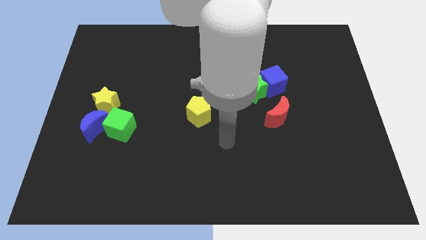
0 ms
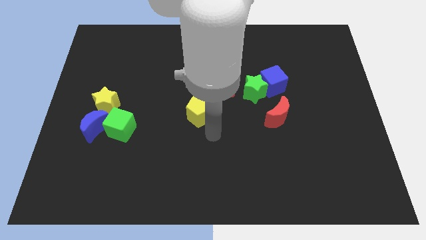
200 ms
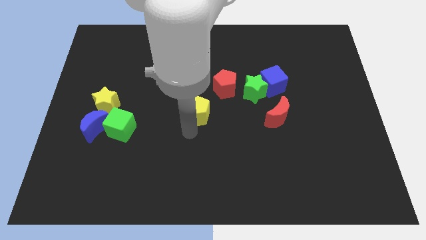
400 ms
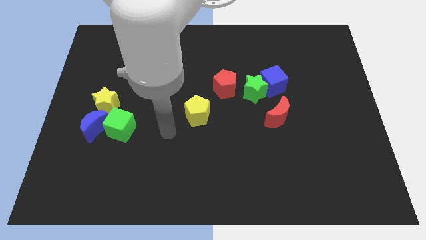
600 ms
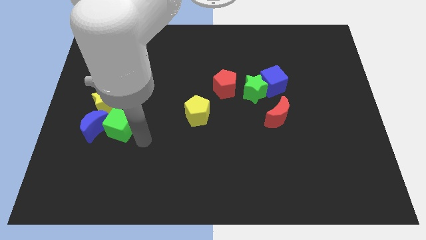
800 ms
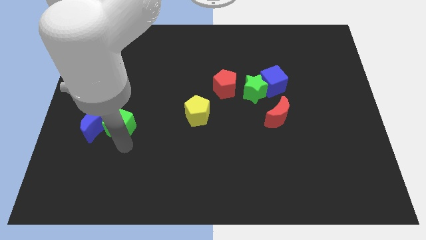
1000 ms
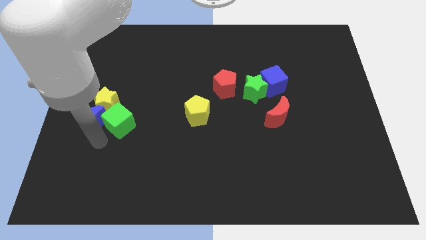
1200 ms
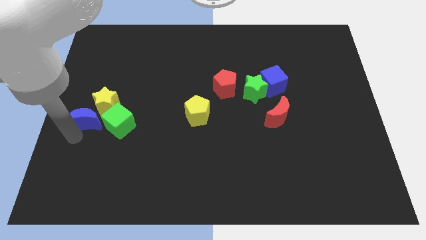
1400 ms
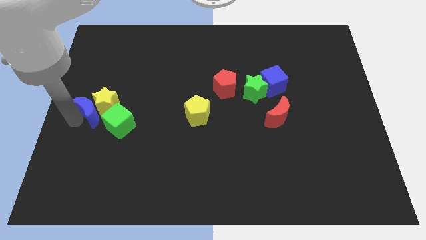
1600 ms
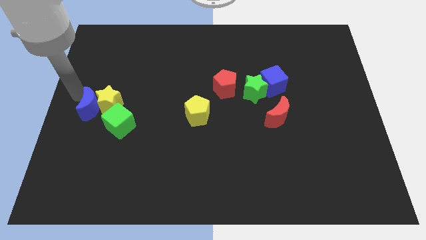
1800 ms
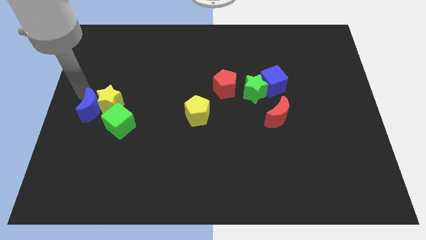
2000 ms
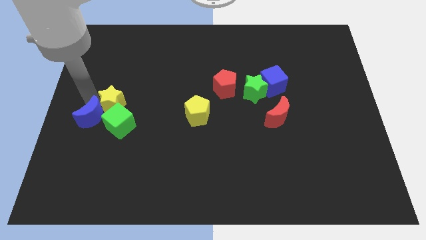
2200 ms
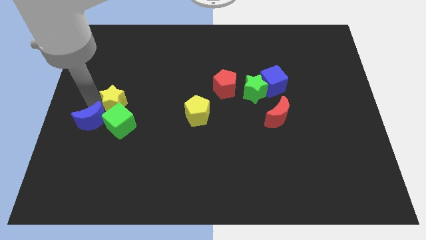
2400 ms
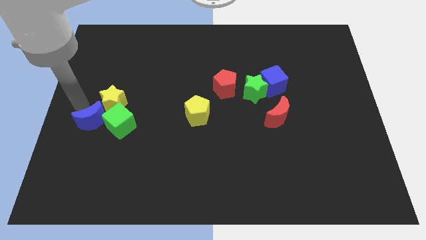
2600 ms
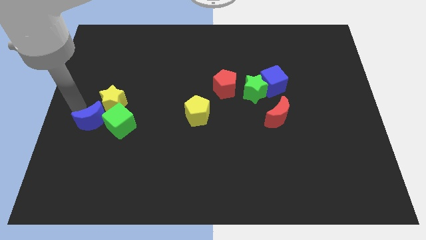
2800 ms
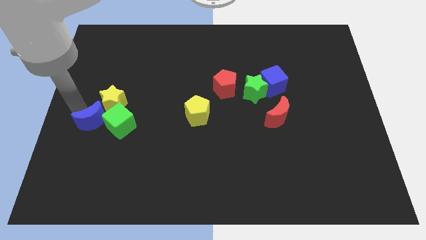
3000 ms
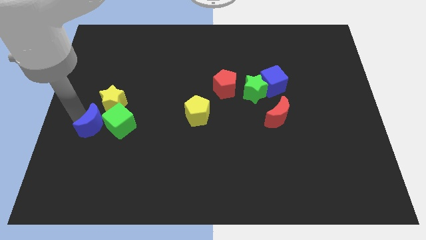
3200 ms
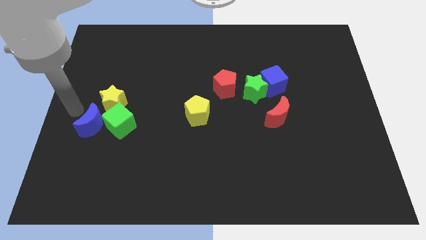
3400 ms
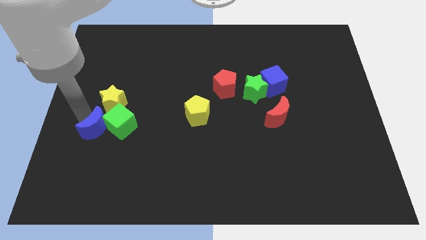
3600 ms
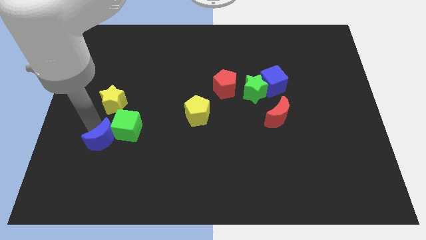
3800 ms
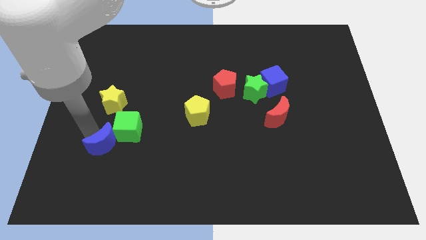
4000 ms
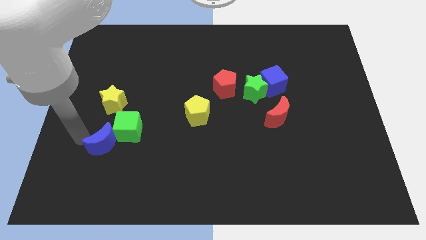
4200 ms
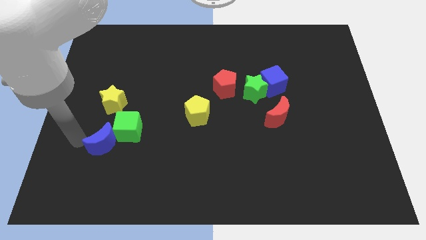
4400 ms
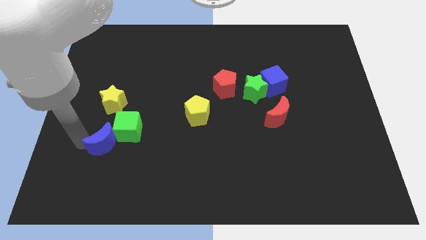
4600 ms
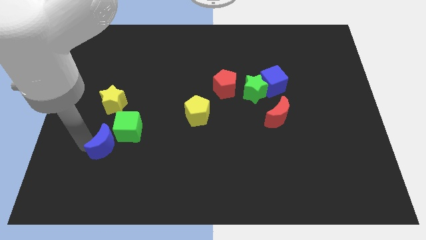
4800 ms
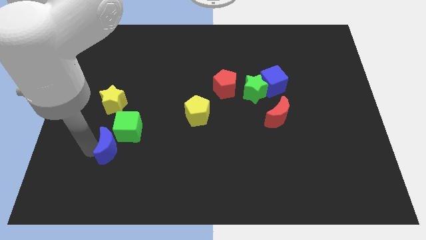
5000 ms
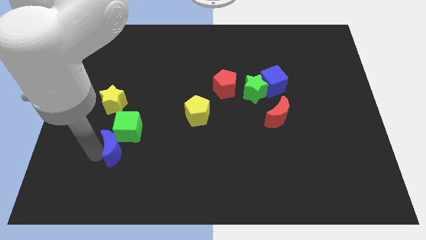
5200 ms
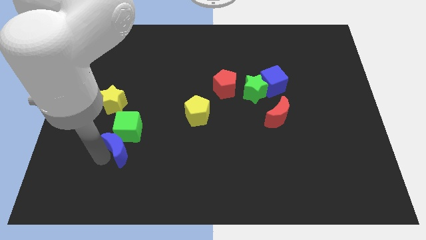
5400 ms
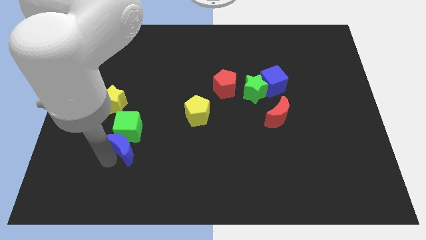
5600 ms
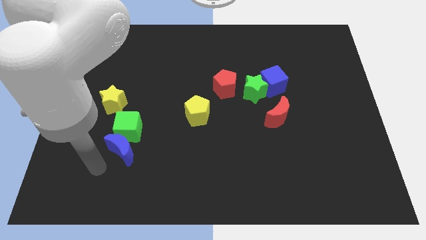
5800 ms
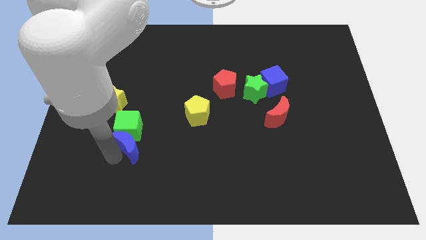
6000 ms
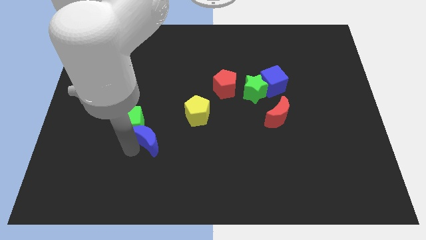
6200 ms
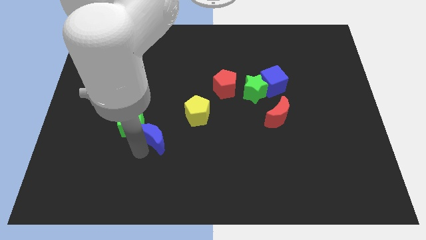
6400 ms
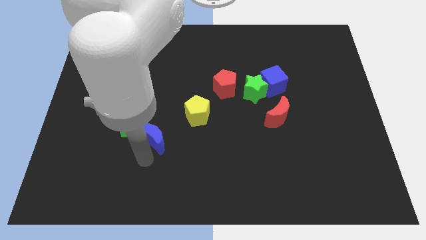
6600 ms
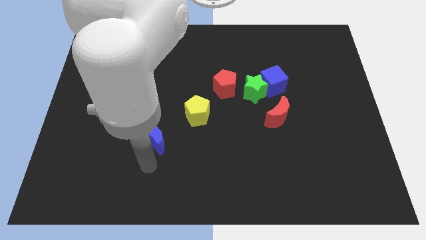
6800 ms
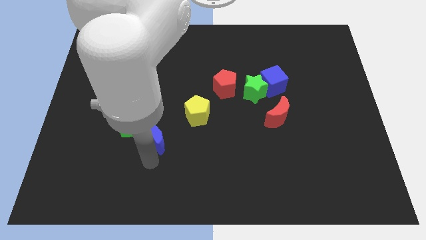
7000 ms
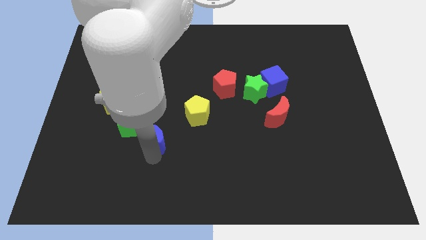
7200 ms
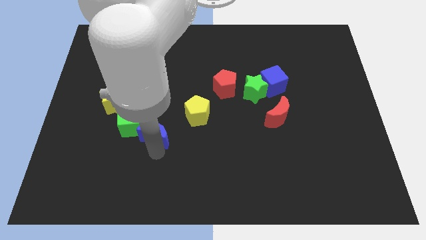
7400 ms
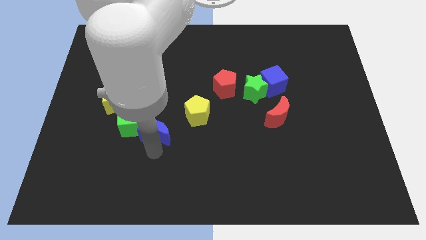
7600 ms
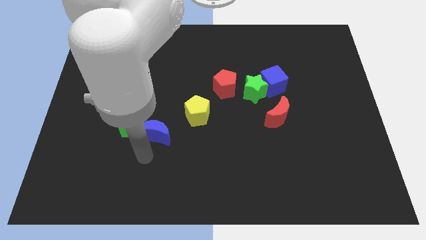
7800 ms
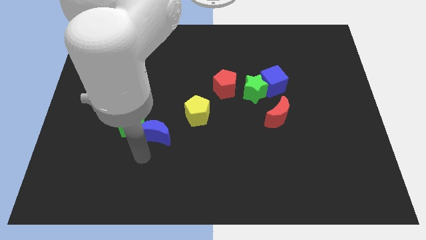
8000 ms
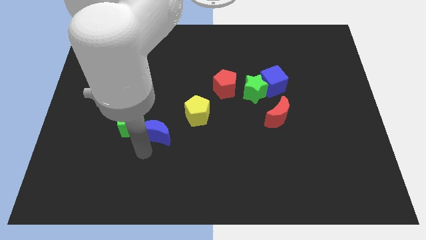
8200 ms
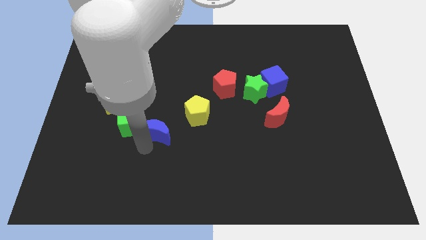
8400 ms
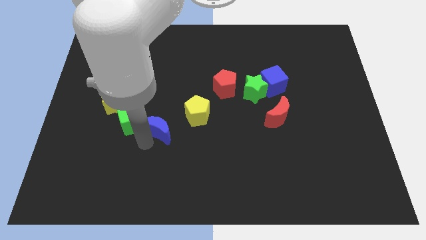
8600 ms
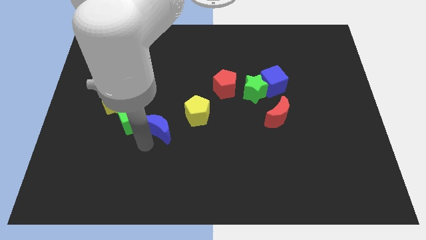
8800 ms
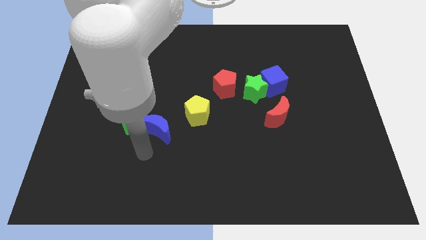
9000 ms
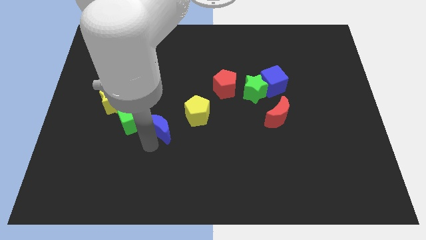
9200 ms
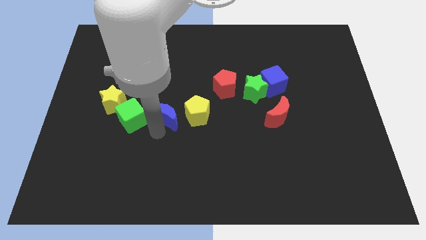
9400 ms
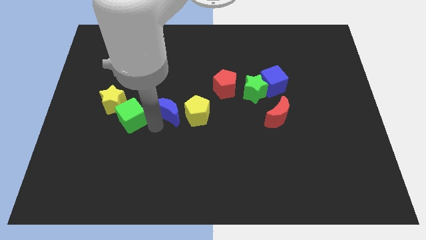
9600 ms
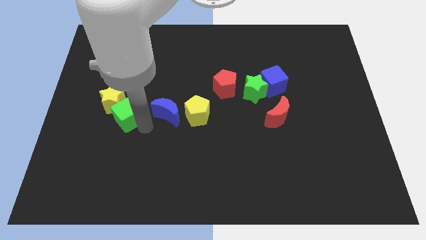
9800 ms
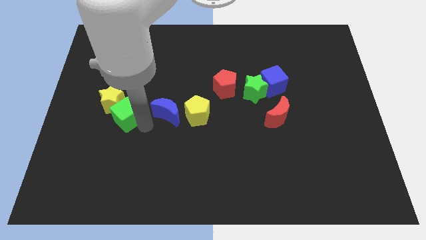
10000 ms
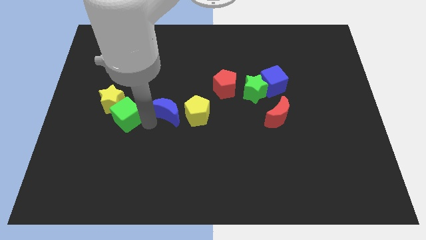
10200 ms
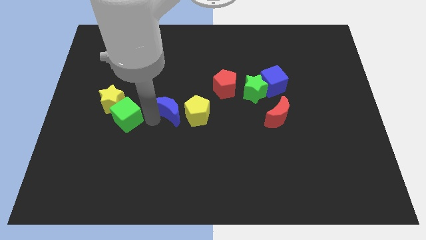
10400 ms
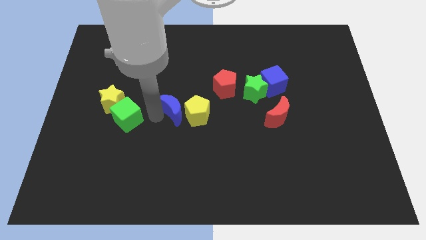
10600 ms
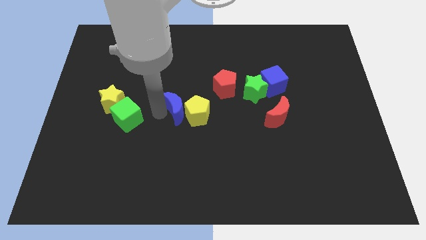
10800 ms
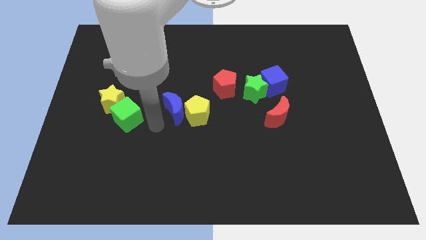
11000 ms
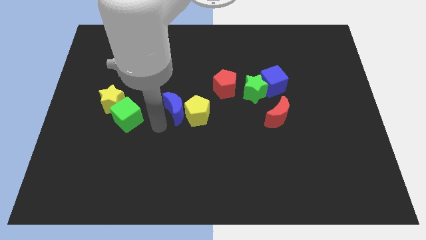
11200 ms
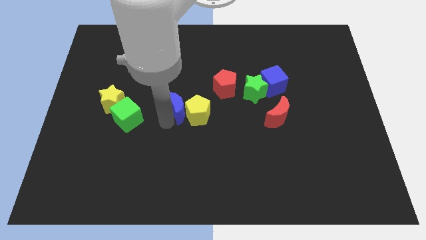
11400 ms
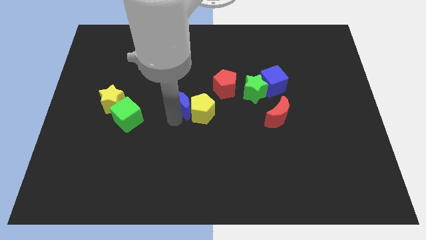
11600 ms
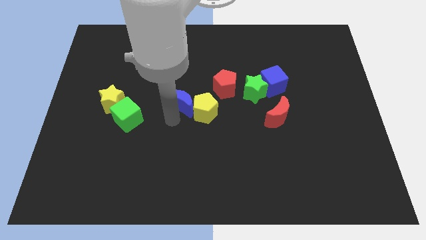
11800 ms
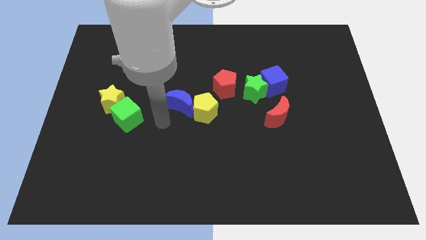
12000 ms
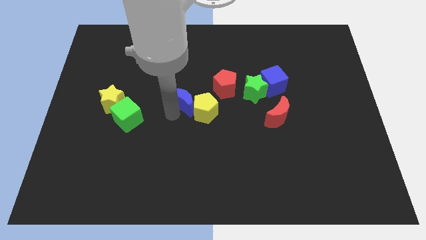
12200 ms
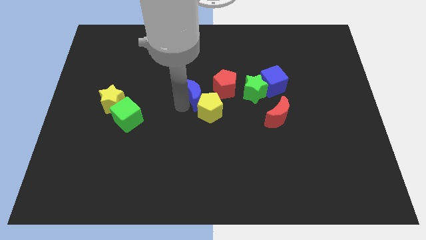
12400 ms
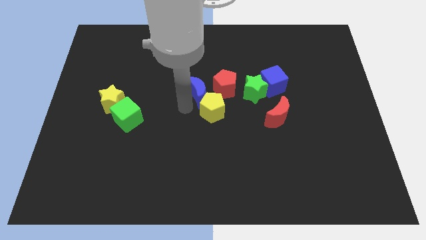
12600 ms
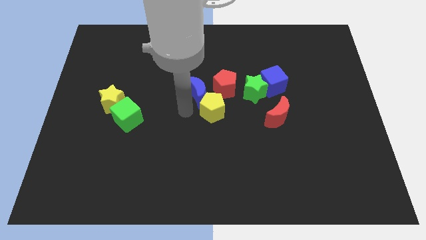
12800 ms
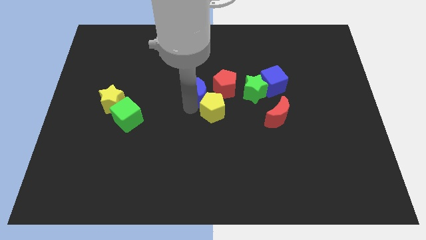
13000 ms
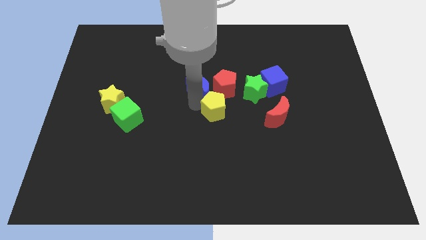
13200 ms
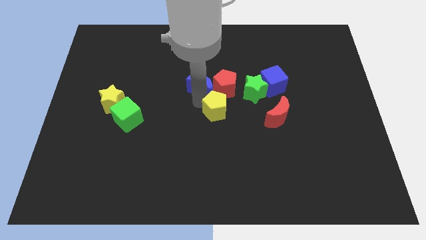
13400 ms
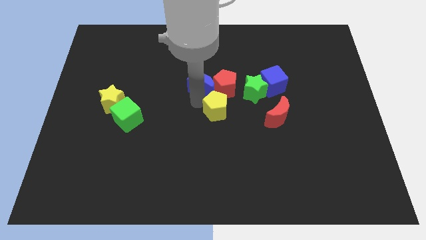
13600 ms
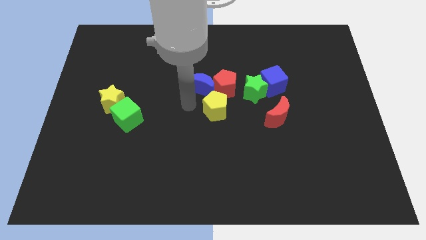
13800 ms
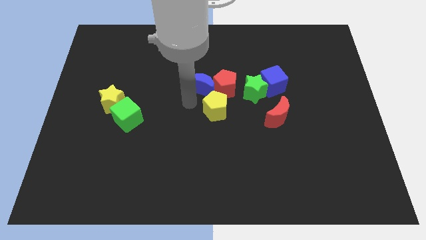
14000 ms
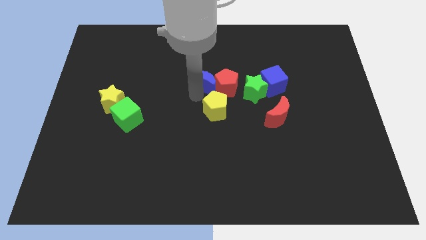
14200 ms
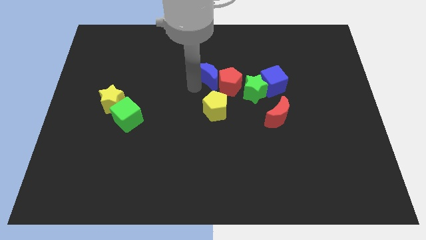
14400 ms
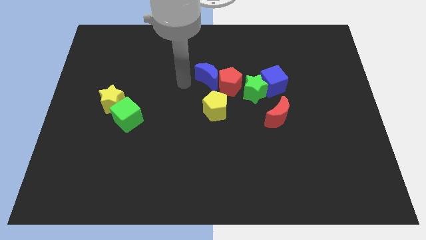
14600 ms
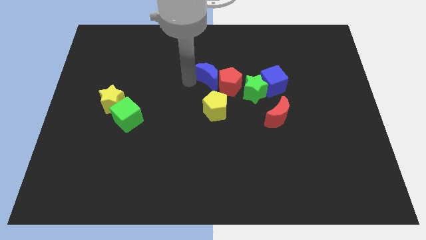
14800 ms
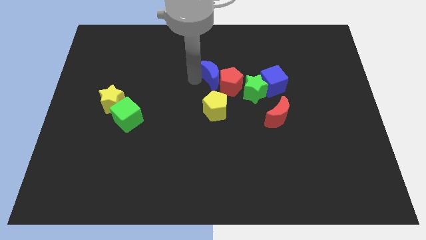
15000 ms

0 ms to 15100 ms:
move the blue moon to the top left of the green star
